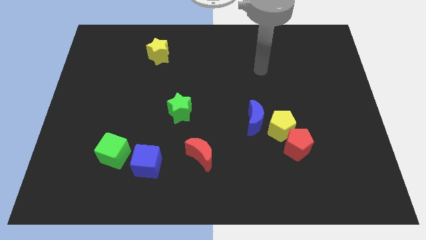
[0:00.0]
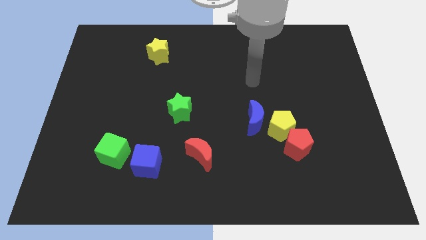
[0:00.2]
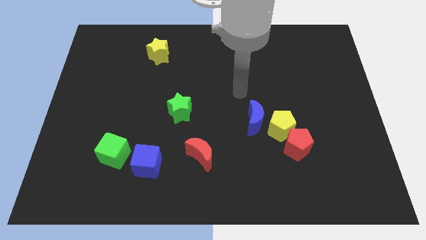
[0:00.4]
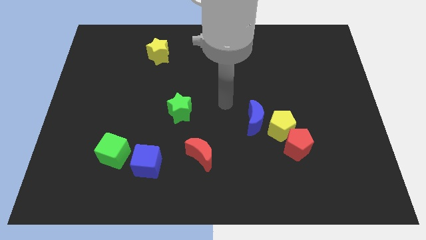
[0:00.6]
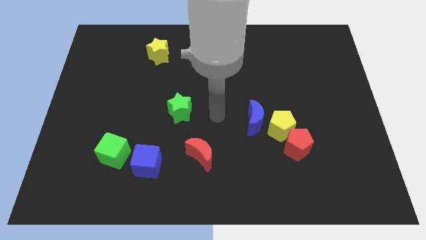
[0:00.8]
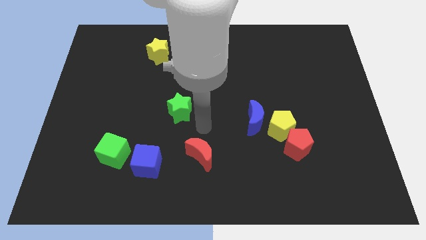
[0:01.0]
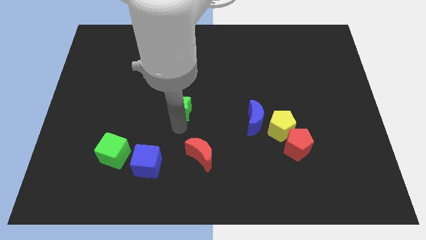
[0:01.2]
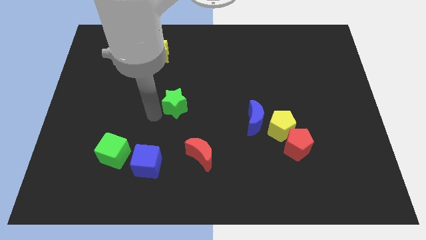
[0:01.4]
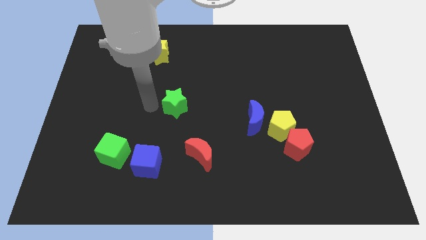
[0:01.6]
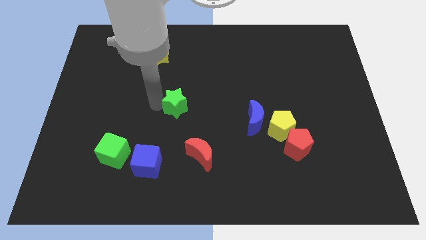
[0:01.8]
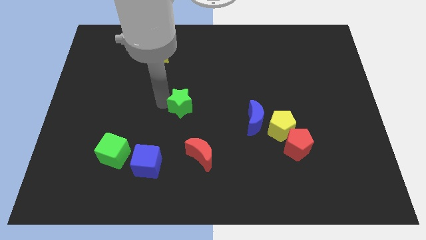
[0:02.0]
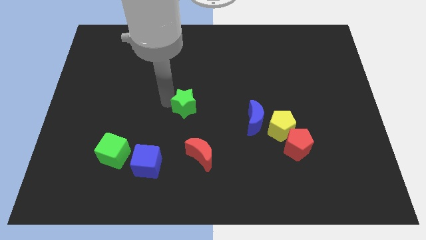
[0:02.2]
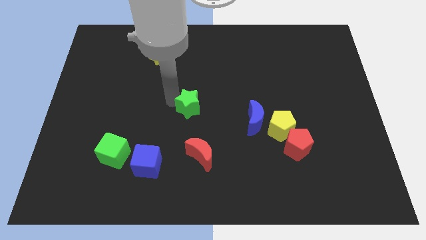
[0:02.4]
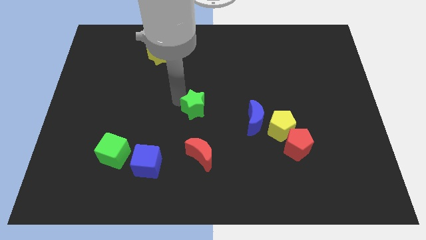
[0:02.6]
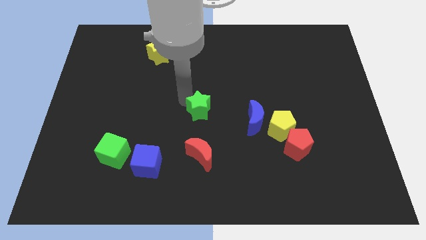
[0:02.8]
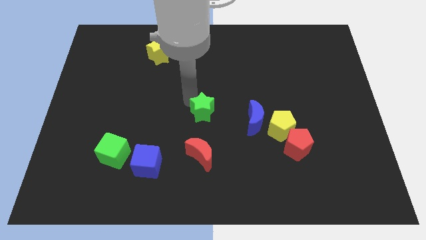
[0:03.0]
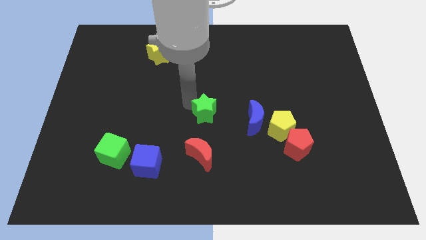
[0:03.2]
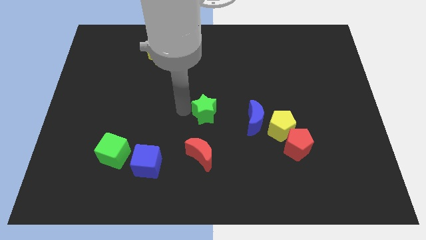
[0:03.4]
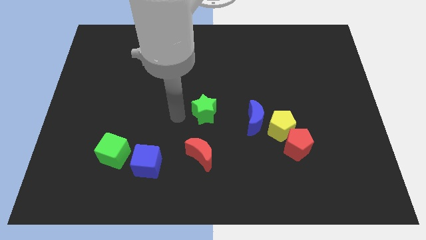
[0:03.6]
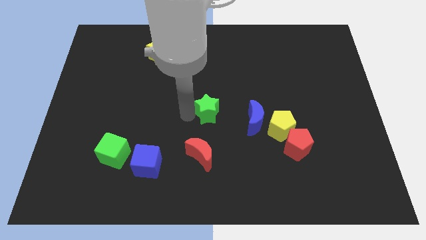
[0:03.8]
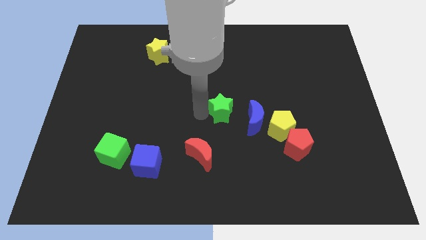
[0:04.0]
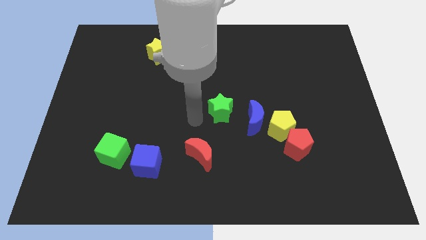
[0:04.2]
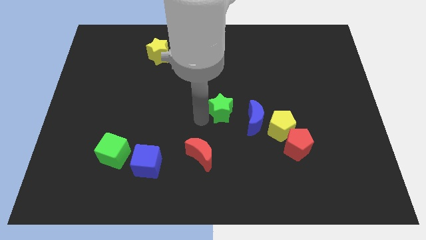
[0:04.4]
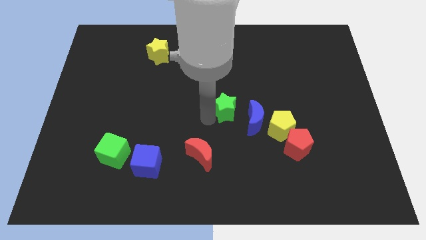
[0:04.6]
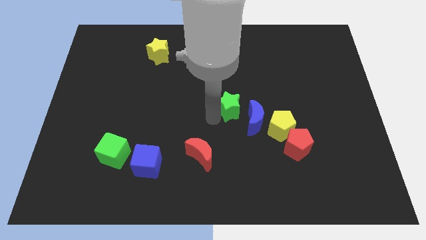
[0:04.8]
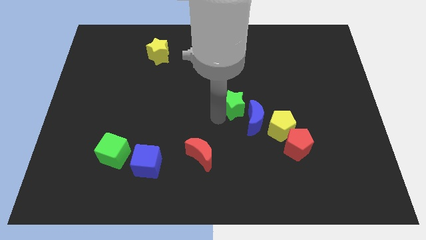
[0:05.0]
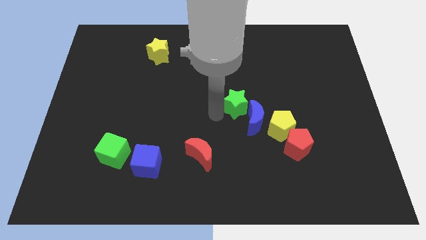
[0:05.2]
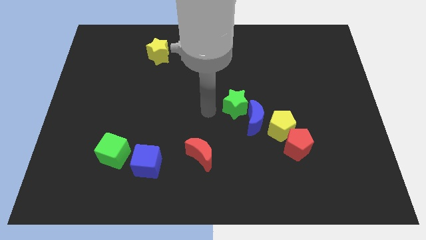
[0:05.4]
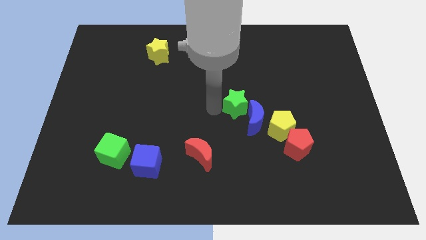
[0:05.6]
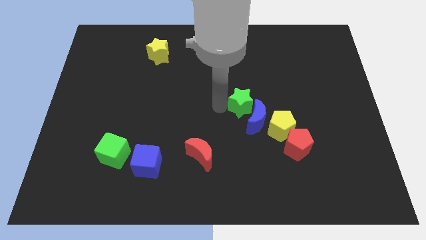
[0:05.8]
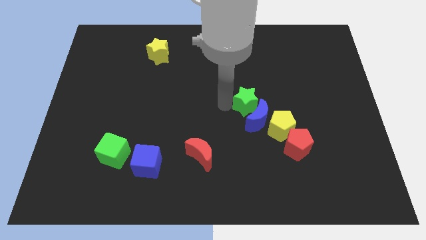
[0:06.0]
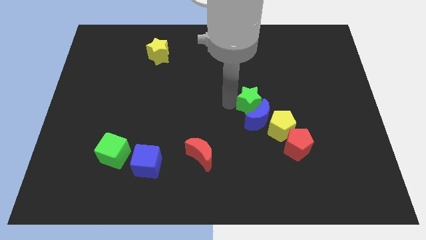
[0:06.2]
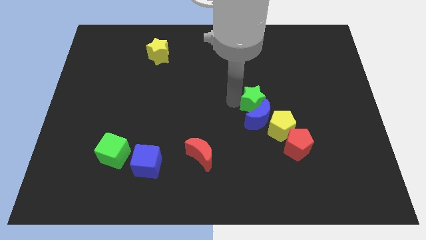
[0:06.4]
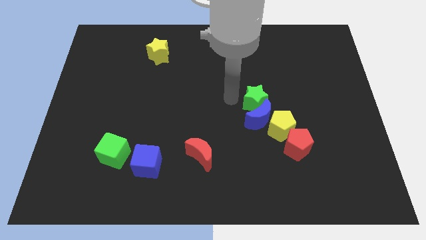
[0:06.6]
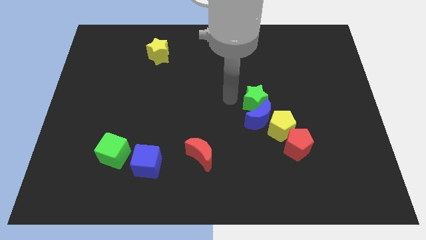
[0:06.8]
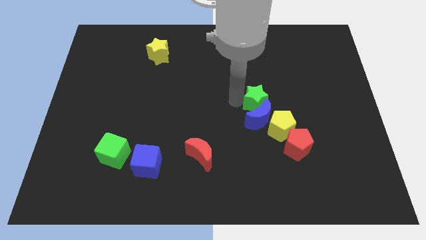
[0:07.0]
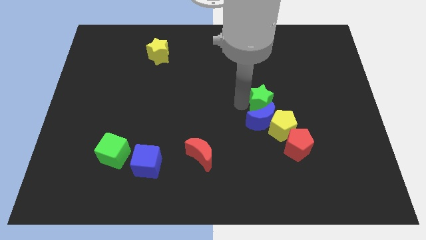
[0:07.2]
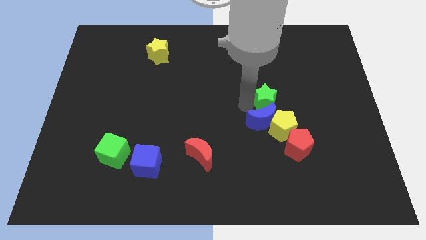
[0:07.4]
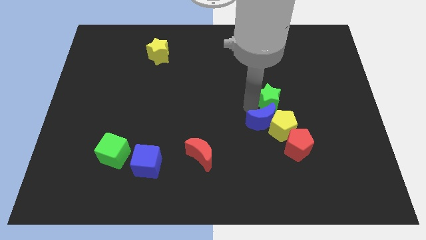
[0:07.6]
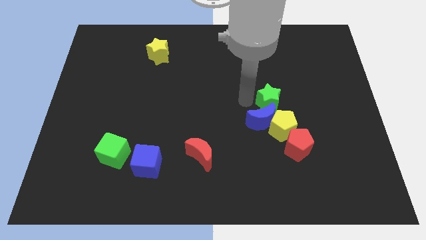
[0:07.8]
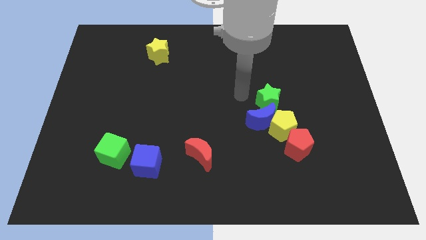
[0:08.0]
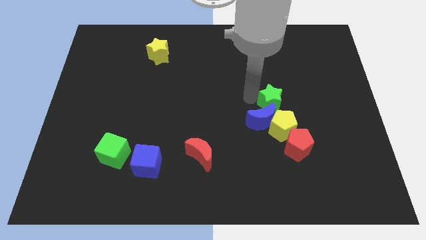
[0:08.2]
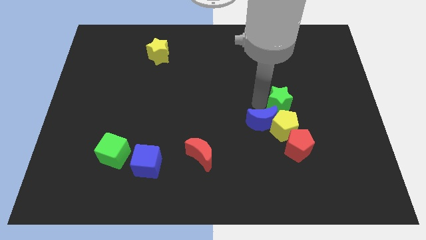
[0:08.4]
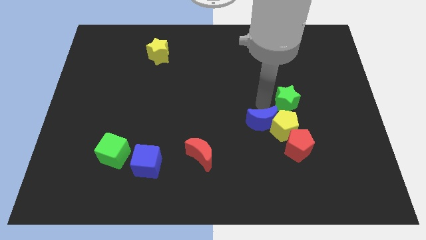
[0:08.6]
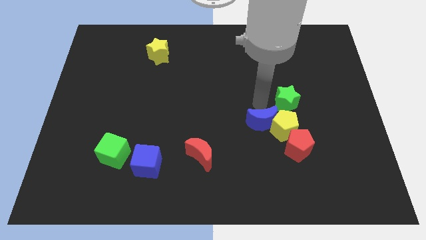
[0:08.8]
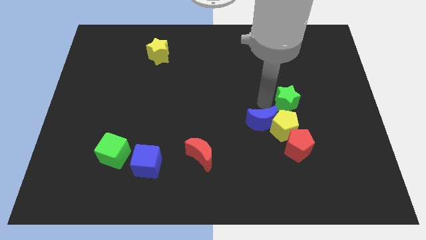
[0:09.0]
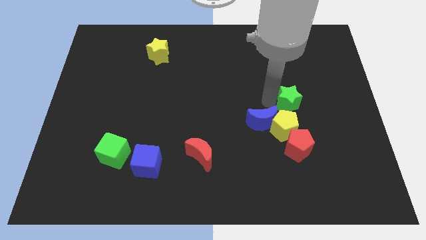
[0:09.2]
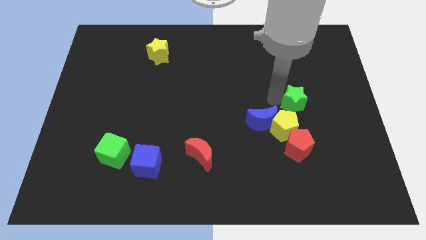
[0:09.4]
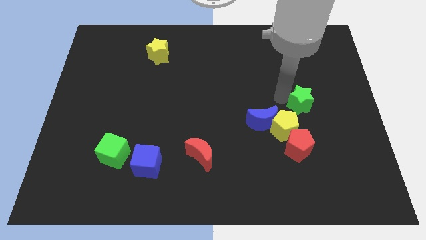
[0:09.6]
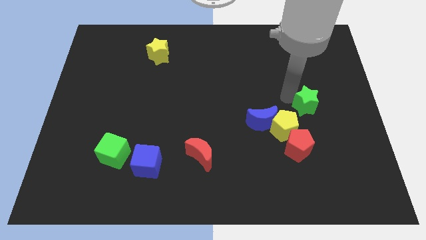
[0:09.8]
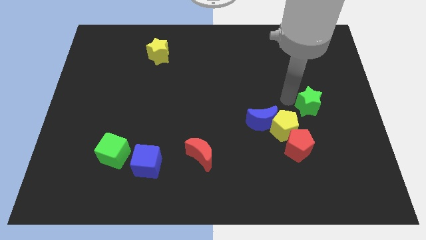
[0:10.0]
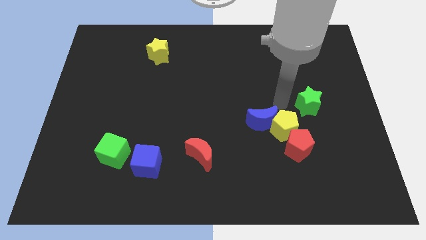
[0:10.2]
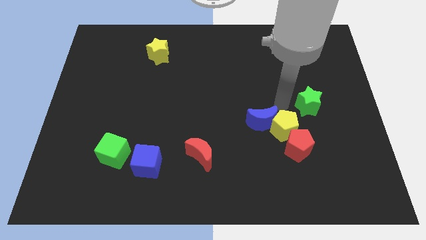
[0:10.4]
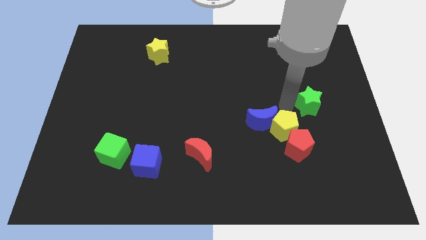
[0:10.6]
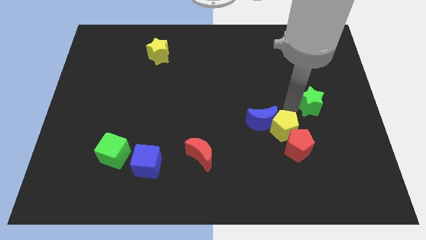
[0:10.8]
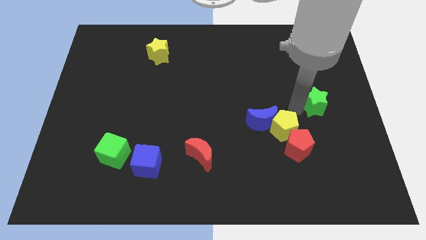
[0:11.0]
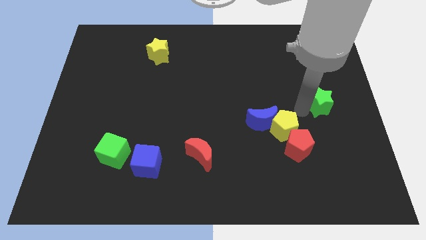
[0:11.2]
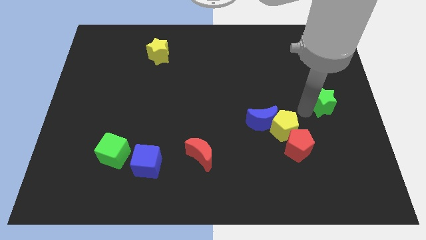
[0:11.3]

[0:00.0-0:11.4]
put the green star to the center right

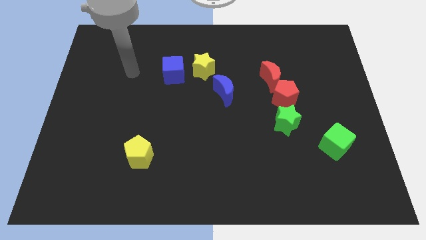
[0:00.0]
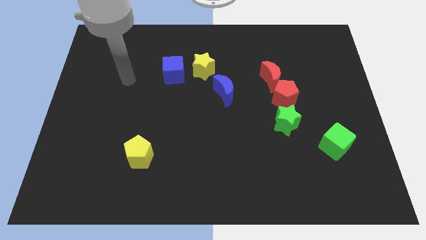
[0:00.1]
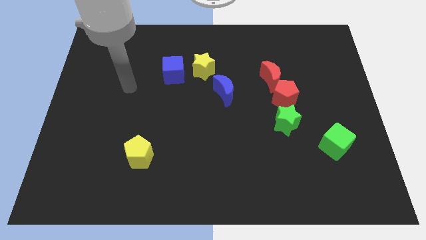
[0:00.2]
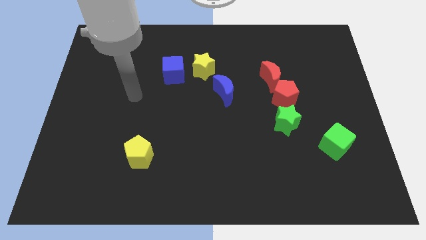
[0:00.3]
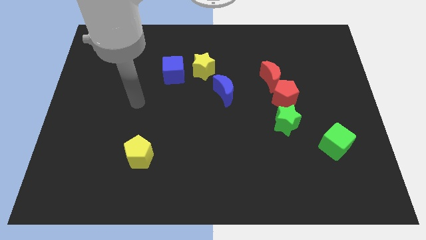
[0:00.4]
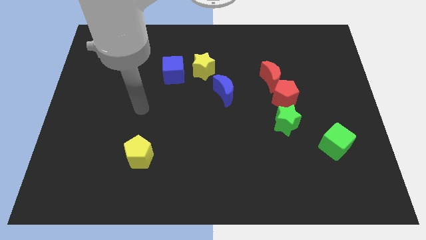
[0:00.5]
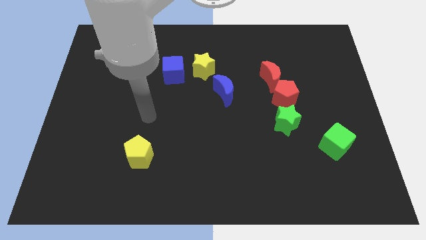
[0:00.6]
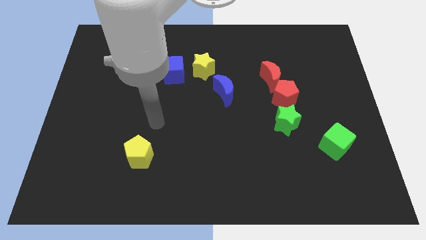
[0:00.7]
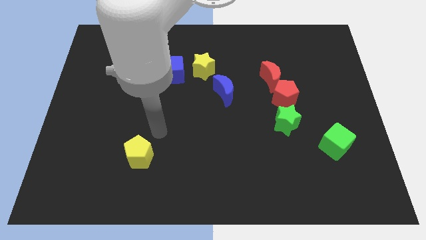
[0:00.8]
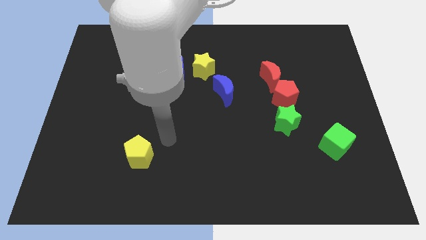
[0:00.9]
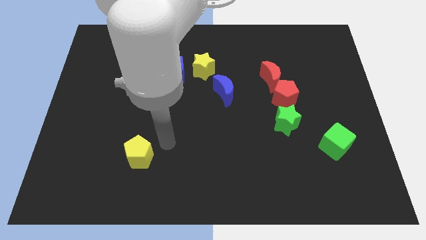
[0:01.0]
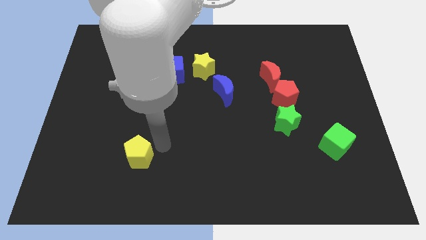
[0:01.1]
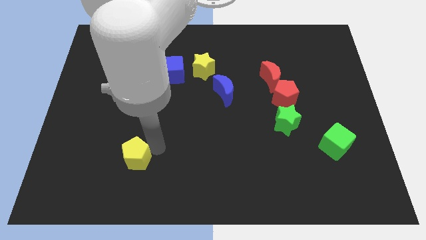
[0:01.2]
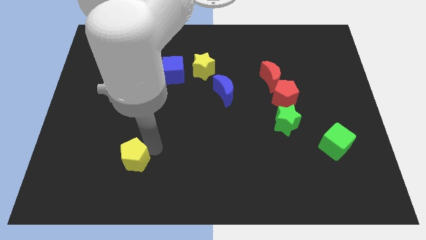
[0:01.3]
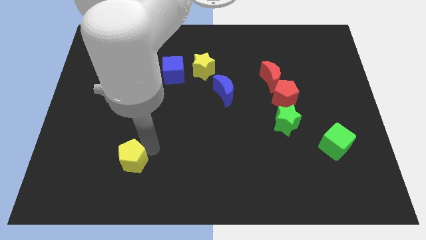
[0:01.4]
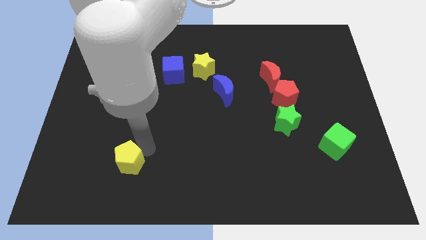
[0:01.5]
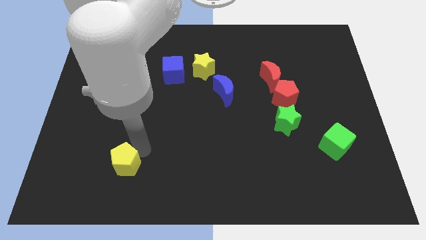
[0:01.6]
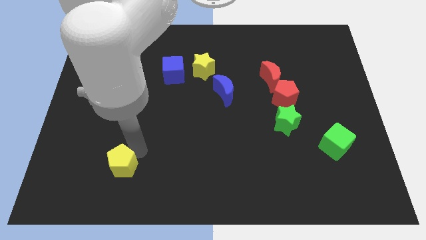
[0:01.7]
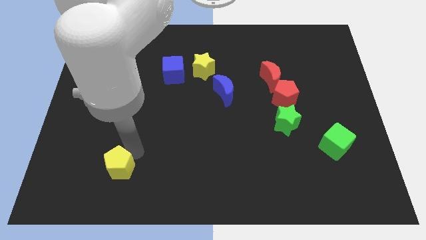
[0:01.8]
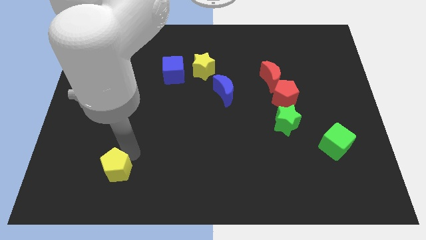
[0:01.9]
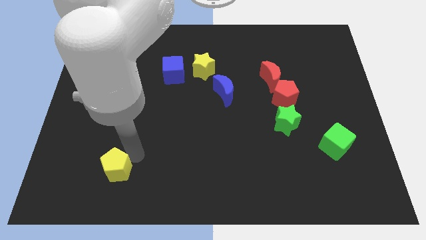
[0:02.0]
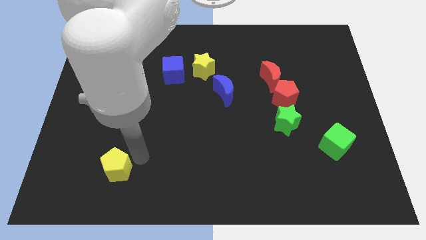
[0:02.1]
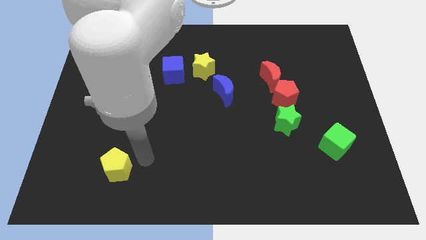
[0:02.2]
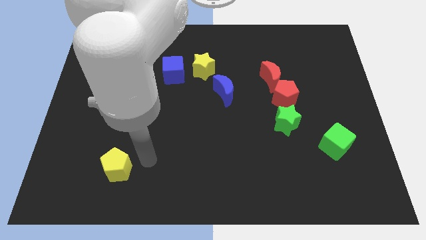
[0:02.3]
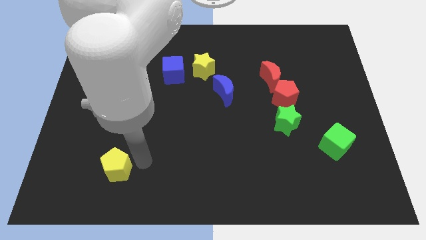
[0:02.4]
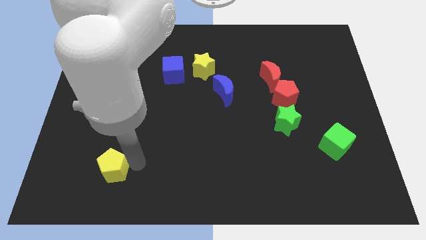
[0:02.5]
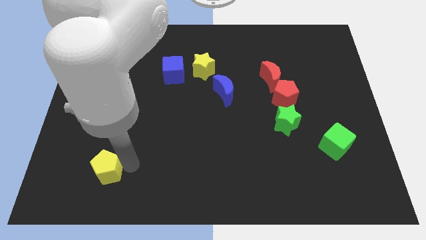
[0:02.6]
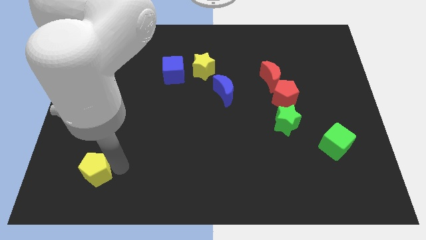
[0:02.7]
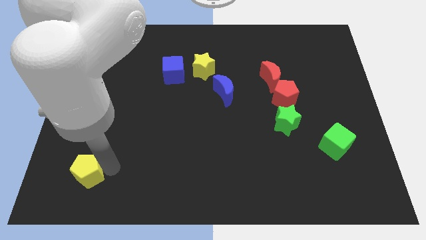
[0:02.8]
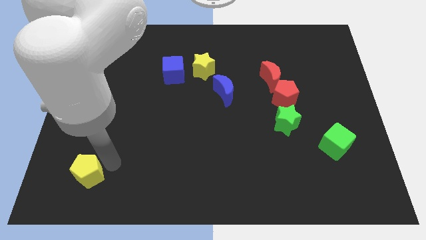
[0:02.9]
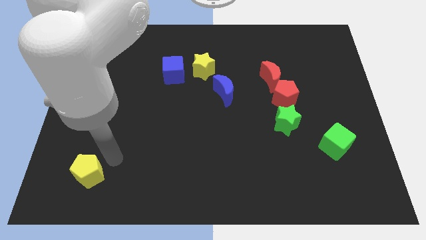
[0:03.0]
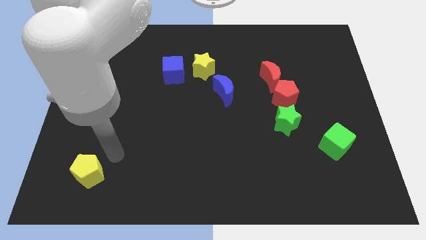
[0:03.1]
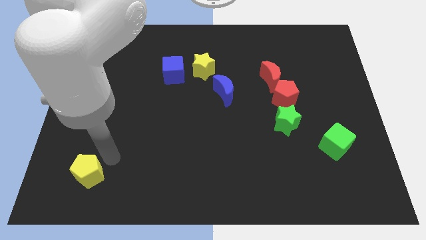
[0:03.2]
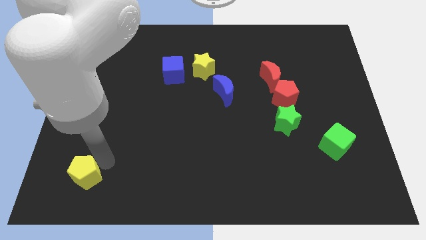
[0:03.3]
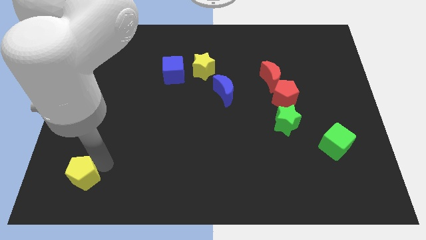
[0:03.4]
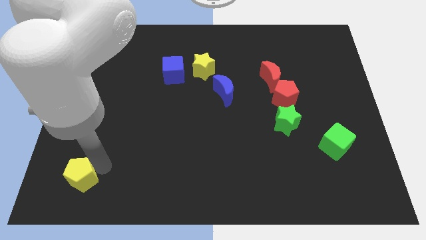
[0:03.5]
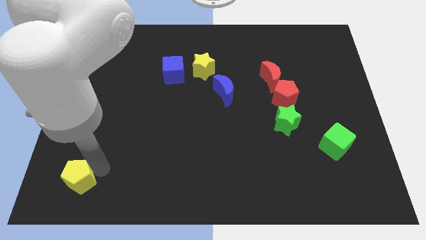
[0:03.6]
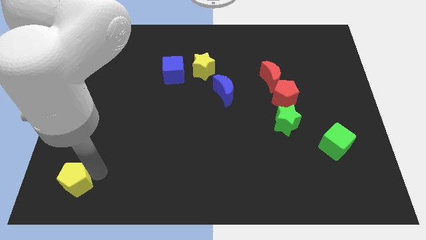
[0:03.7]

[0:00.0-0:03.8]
move the yellow pentagon to the bottom left
